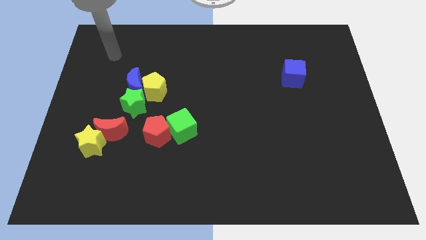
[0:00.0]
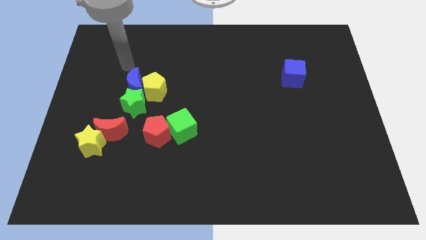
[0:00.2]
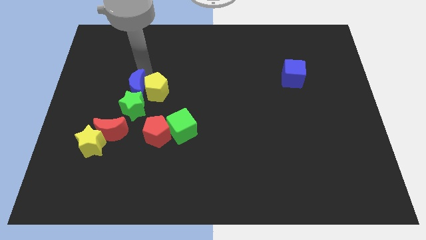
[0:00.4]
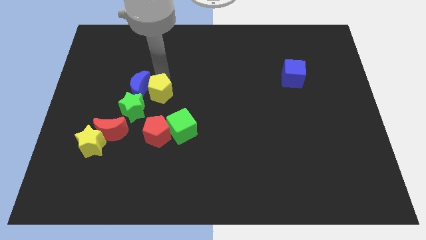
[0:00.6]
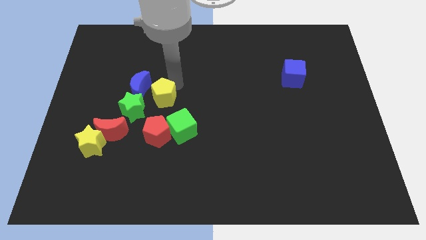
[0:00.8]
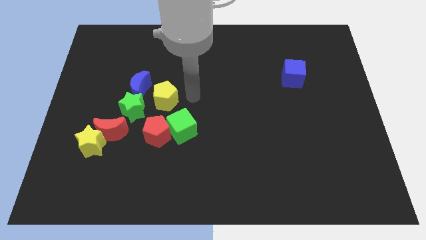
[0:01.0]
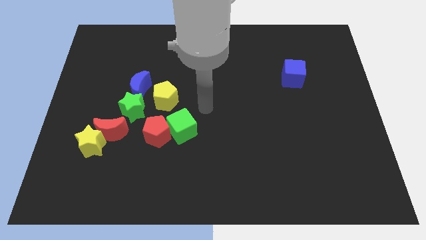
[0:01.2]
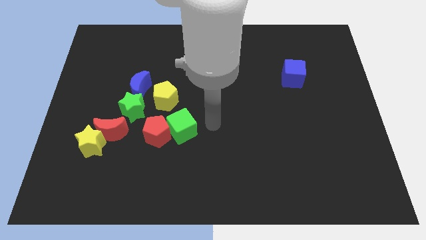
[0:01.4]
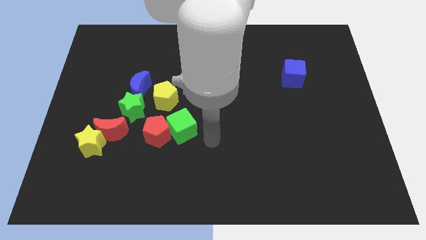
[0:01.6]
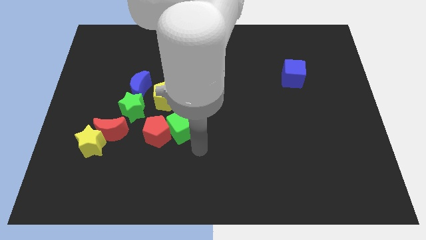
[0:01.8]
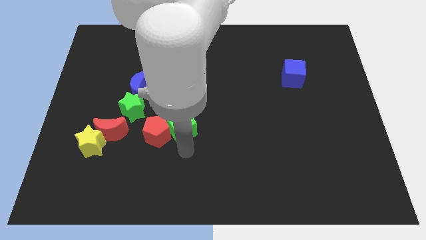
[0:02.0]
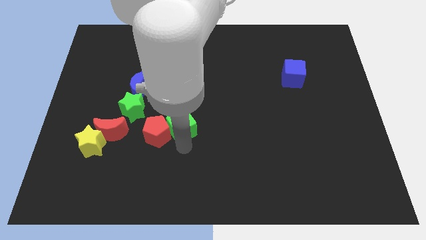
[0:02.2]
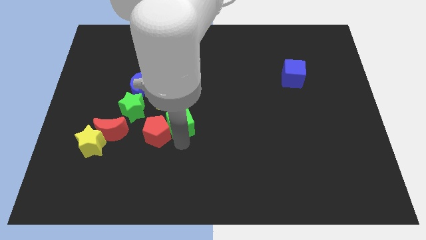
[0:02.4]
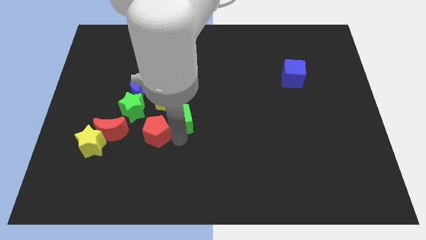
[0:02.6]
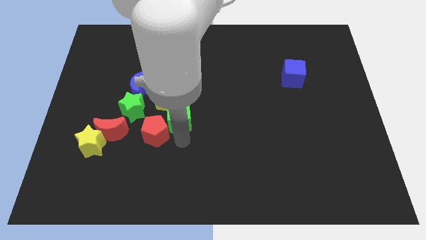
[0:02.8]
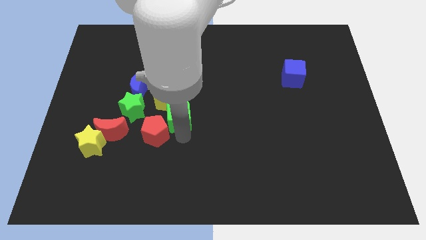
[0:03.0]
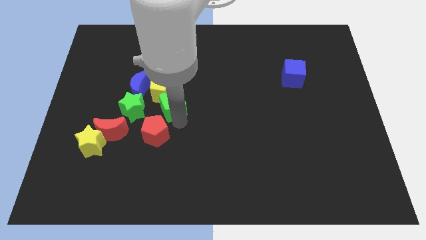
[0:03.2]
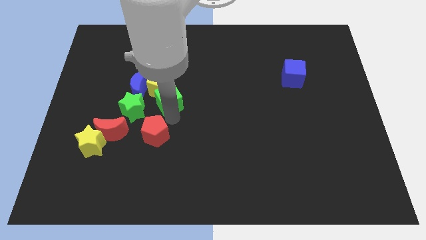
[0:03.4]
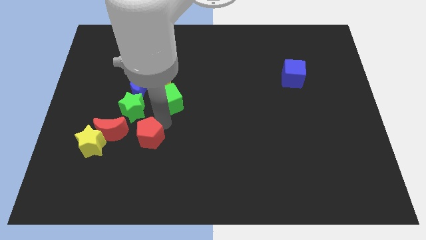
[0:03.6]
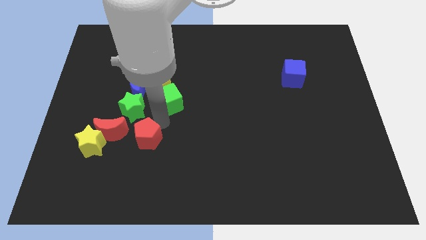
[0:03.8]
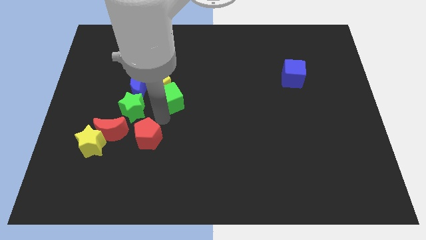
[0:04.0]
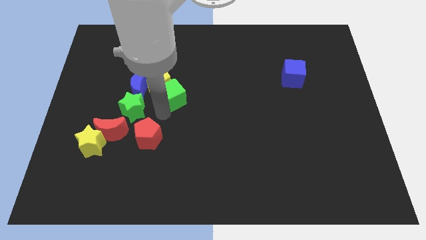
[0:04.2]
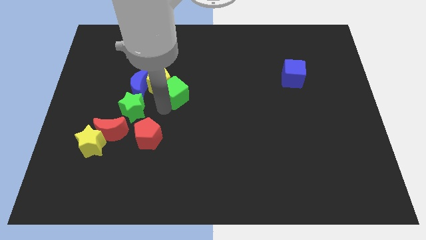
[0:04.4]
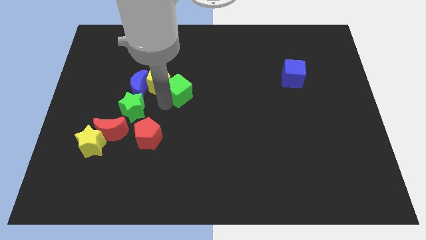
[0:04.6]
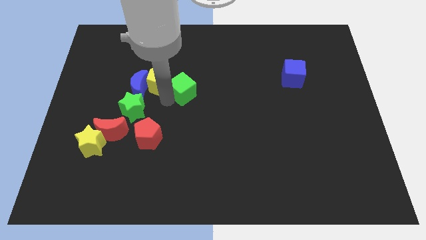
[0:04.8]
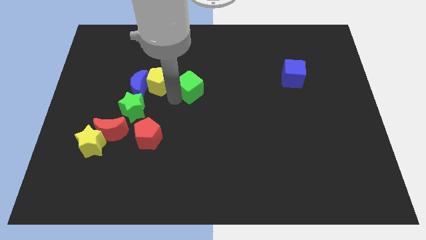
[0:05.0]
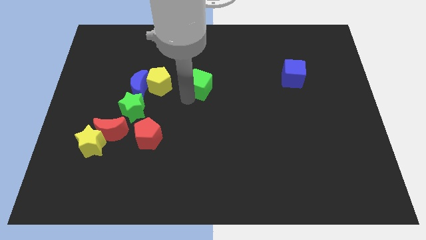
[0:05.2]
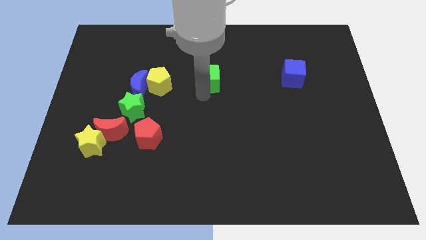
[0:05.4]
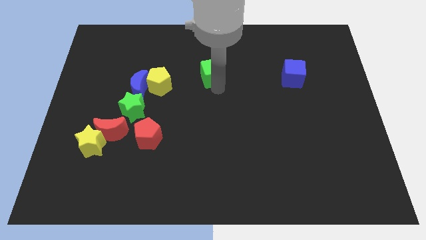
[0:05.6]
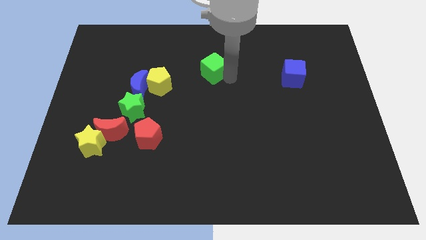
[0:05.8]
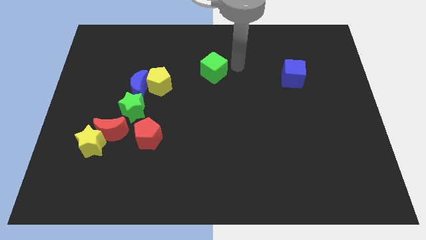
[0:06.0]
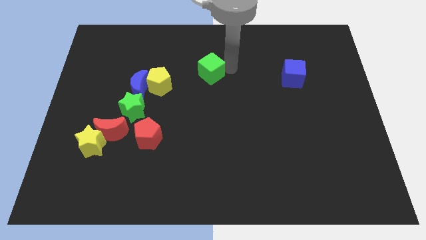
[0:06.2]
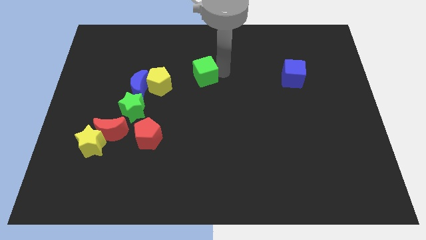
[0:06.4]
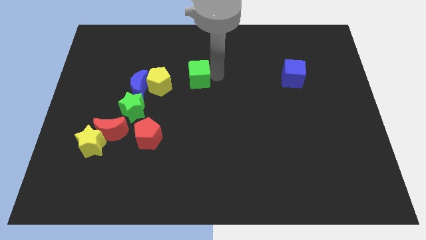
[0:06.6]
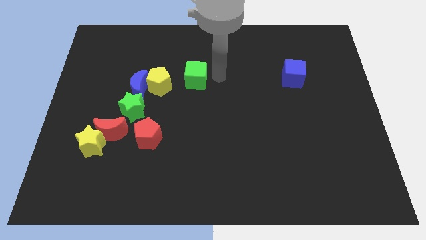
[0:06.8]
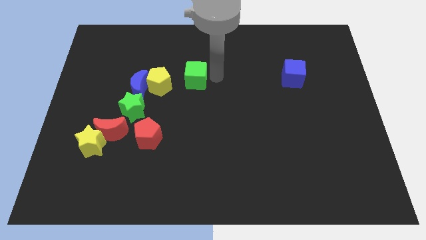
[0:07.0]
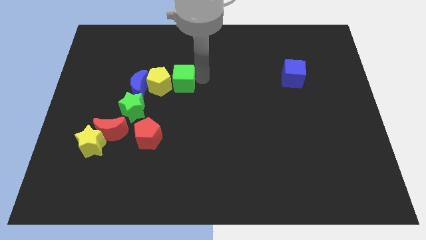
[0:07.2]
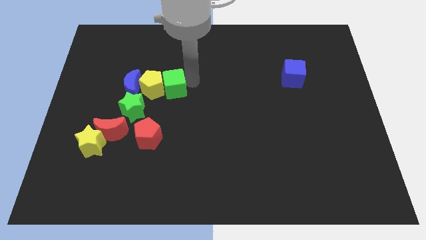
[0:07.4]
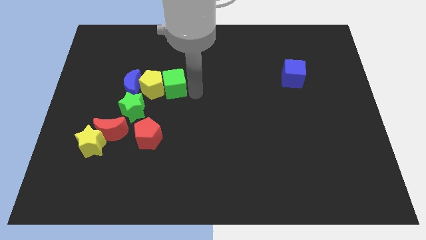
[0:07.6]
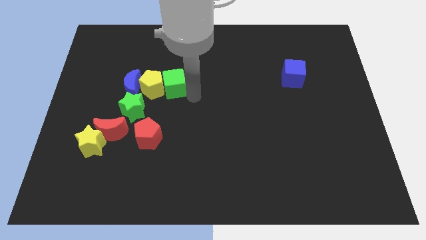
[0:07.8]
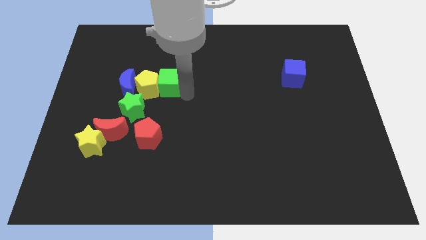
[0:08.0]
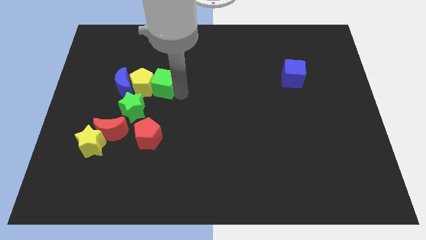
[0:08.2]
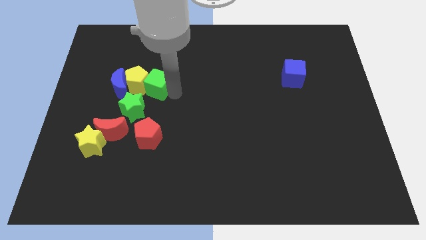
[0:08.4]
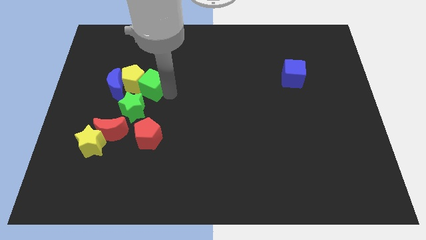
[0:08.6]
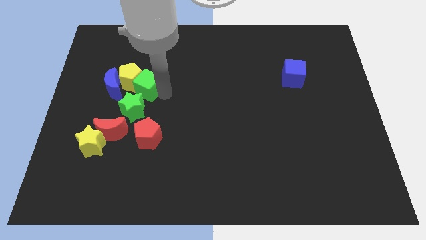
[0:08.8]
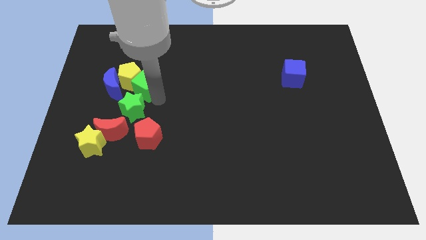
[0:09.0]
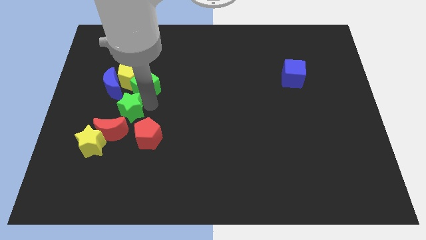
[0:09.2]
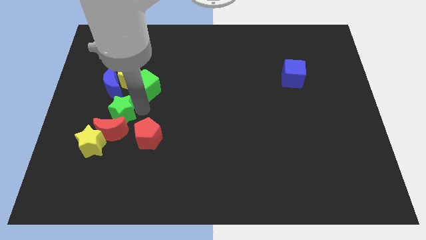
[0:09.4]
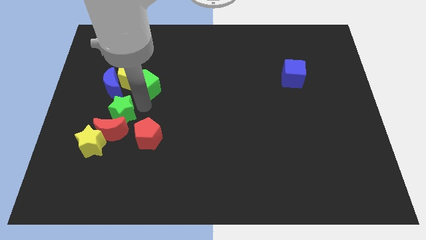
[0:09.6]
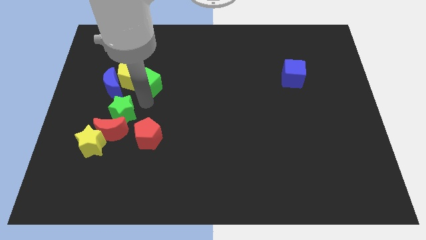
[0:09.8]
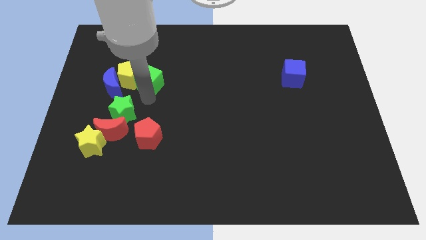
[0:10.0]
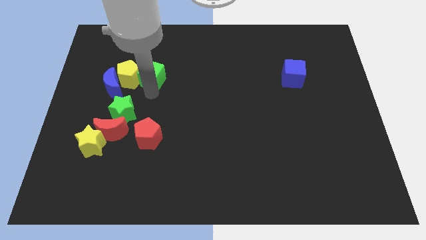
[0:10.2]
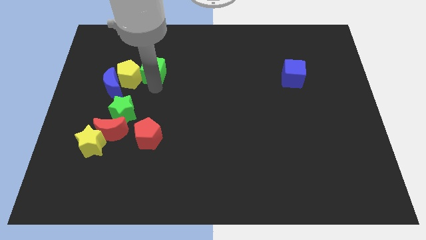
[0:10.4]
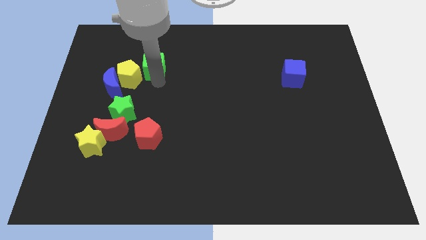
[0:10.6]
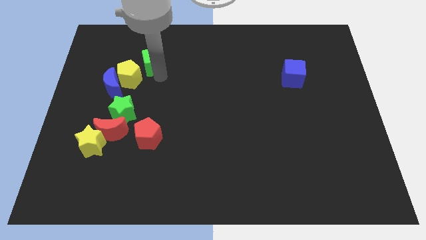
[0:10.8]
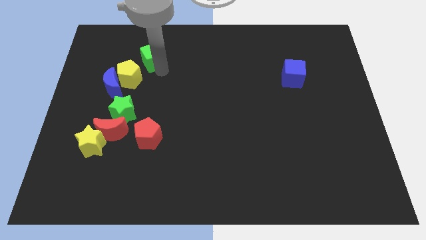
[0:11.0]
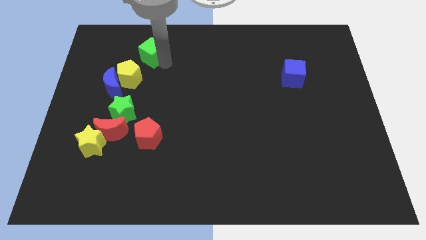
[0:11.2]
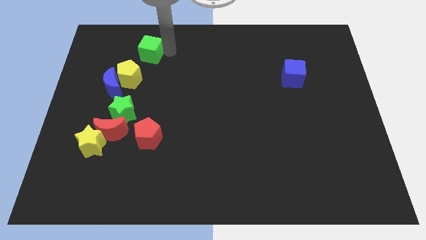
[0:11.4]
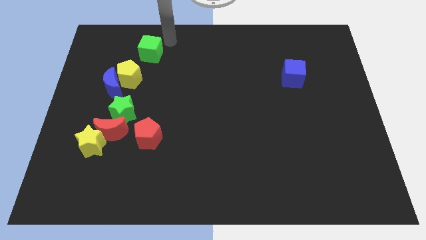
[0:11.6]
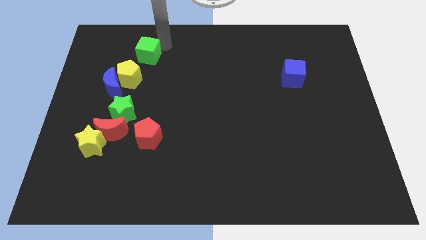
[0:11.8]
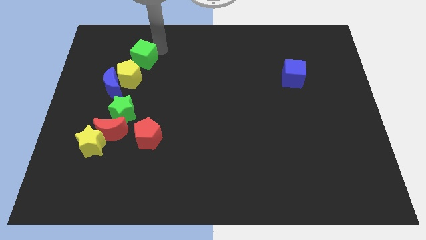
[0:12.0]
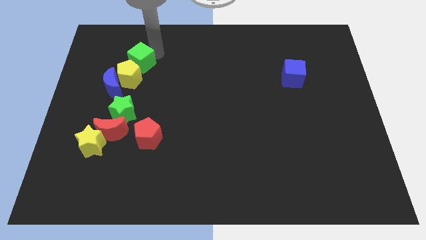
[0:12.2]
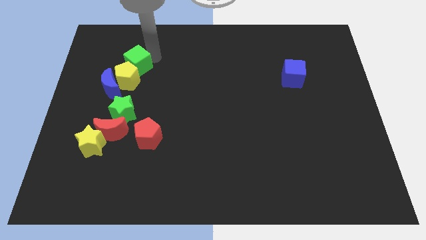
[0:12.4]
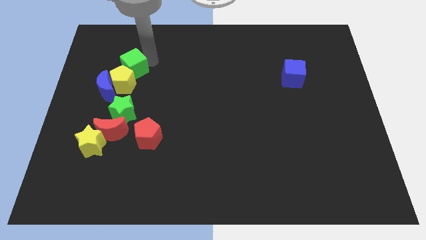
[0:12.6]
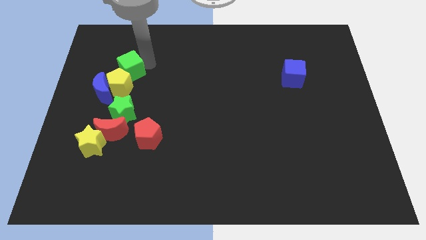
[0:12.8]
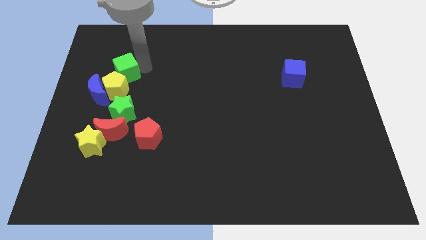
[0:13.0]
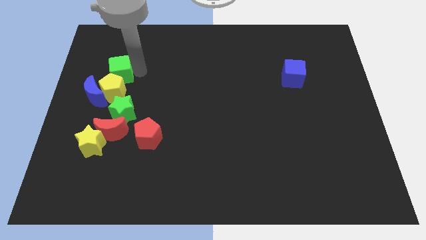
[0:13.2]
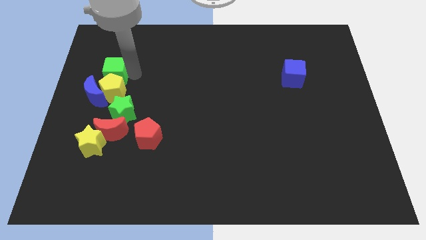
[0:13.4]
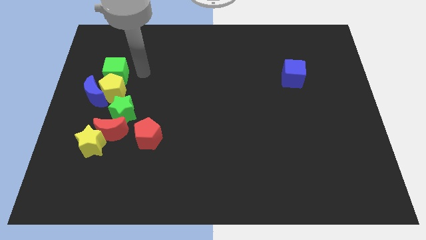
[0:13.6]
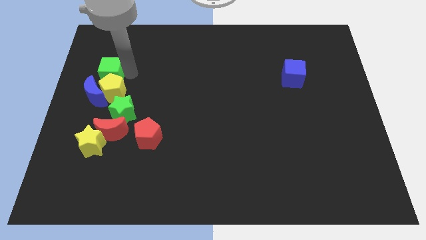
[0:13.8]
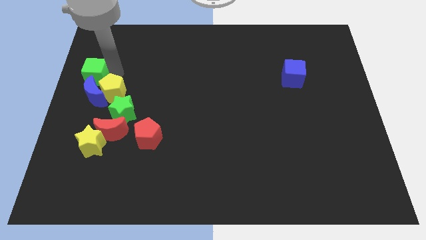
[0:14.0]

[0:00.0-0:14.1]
move the green cube to the left side
